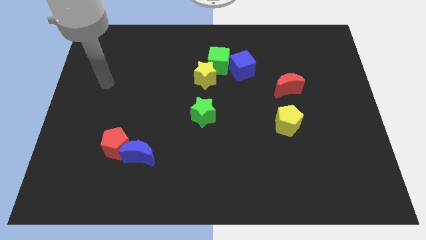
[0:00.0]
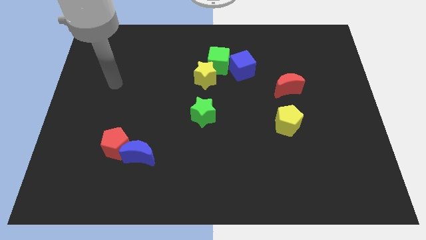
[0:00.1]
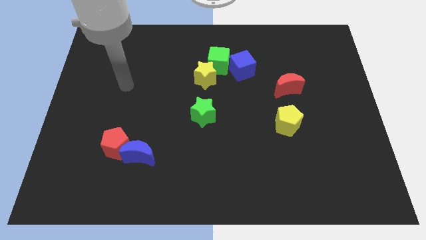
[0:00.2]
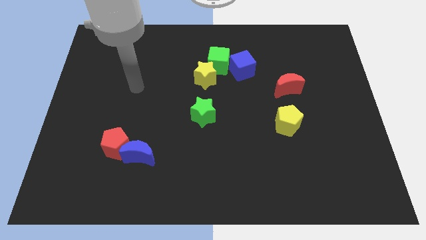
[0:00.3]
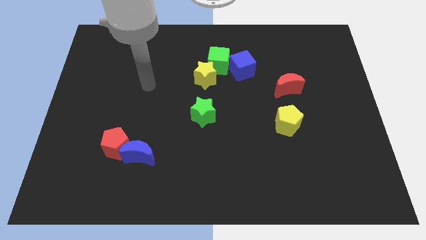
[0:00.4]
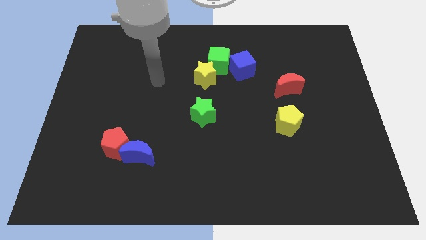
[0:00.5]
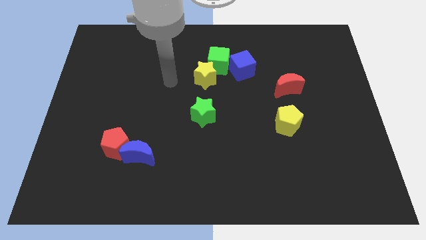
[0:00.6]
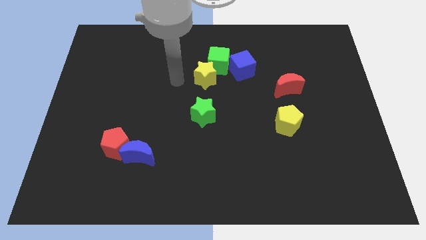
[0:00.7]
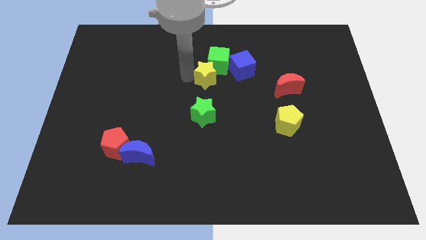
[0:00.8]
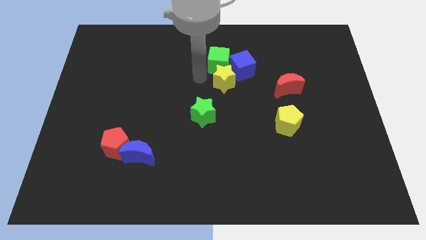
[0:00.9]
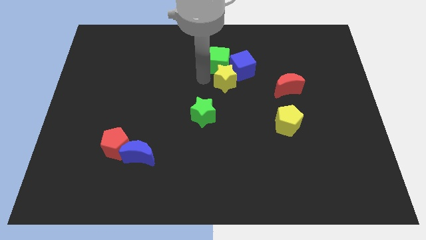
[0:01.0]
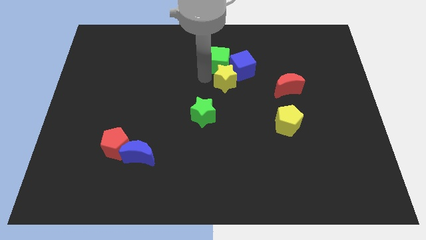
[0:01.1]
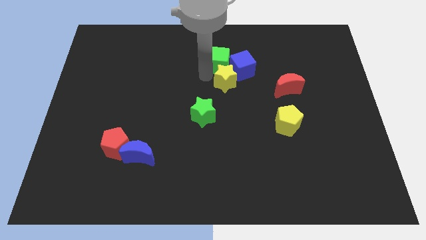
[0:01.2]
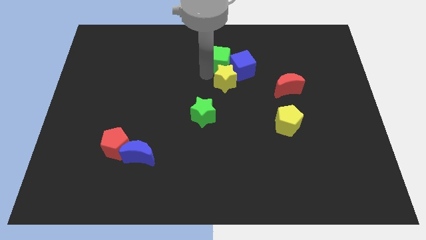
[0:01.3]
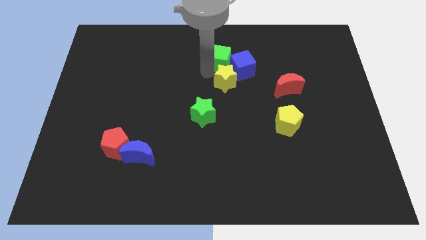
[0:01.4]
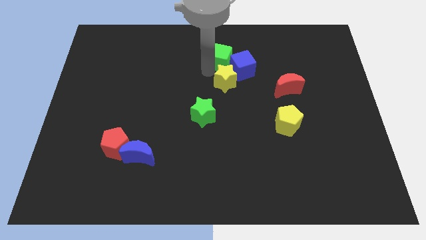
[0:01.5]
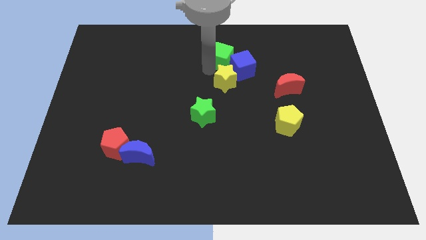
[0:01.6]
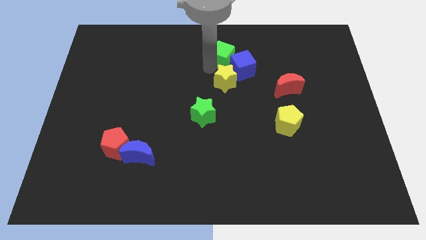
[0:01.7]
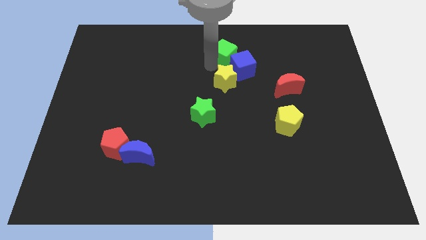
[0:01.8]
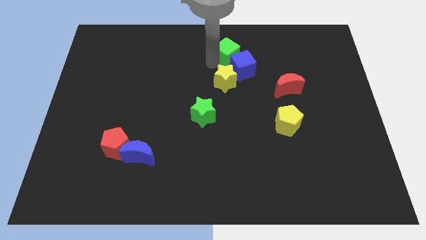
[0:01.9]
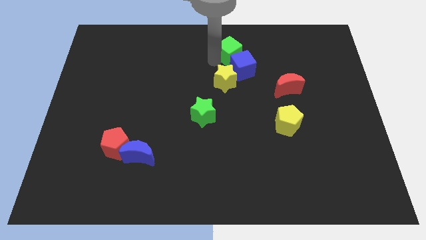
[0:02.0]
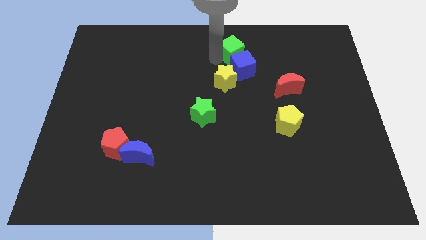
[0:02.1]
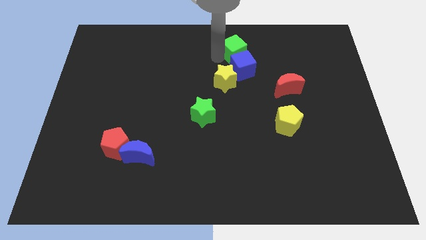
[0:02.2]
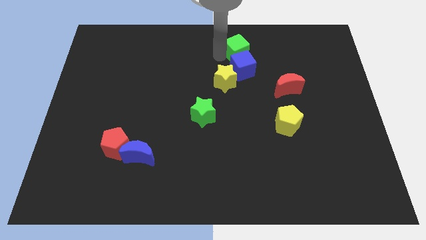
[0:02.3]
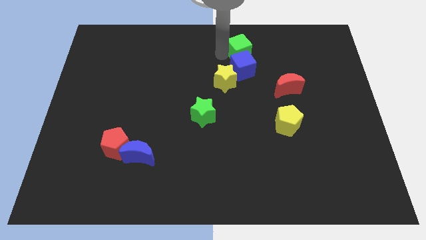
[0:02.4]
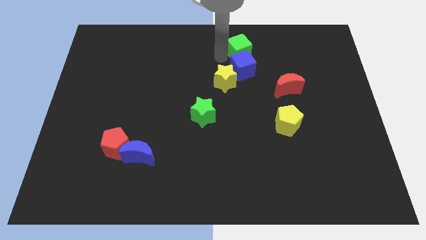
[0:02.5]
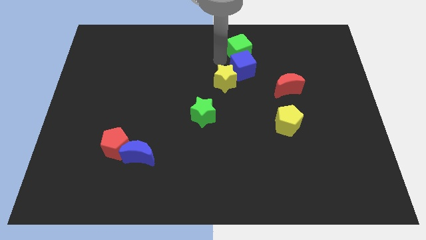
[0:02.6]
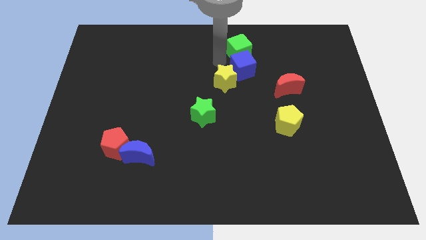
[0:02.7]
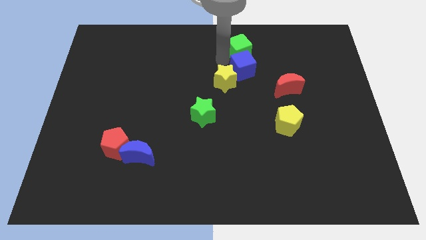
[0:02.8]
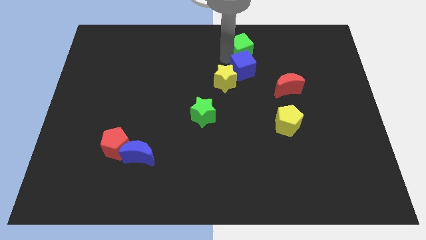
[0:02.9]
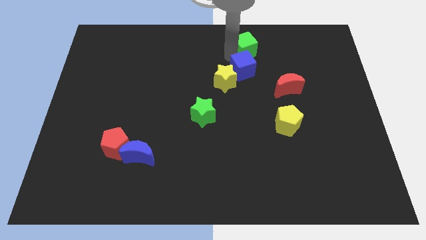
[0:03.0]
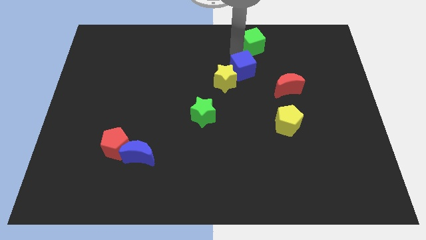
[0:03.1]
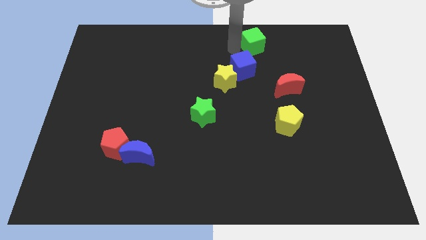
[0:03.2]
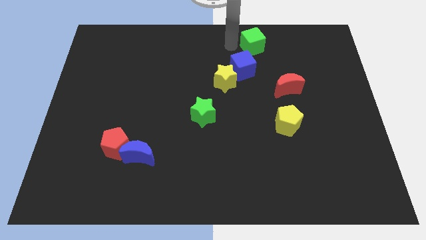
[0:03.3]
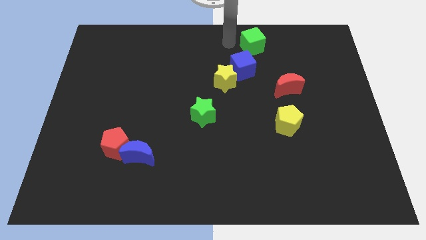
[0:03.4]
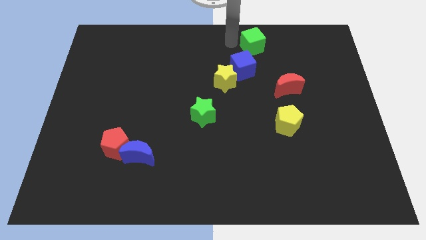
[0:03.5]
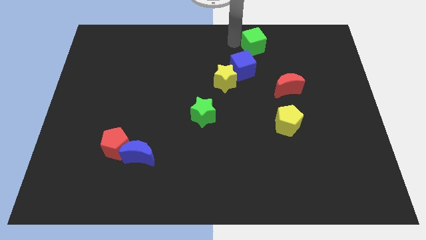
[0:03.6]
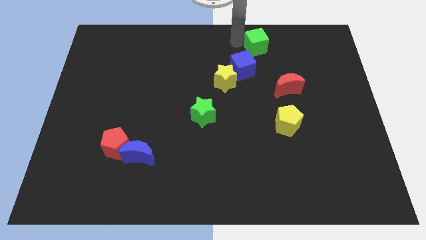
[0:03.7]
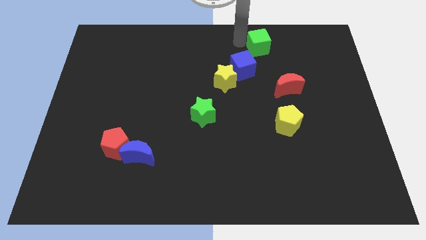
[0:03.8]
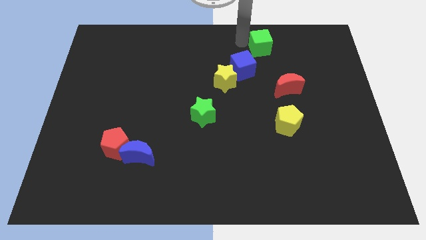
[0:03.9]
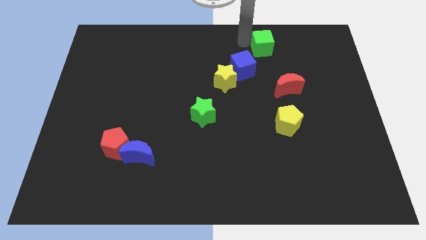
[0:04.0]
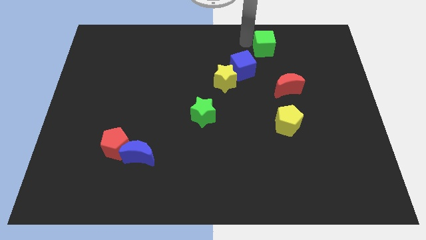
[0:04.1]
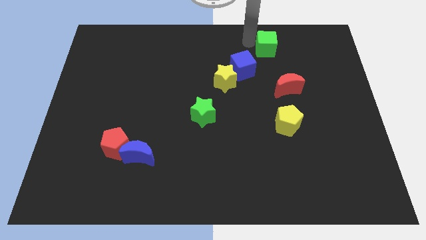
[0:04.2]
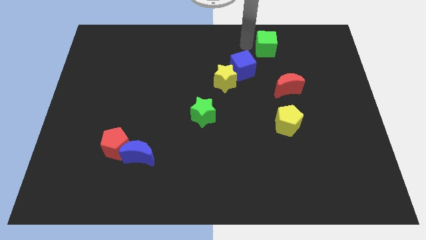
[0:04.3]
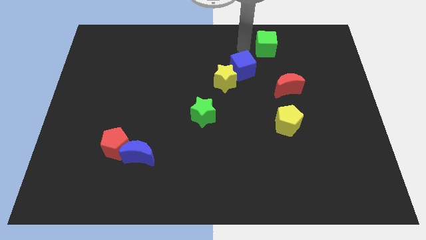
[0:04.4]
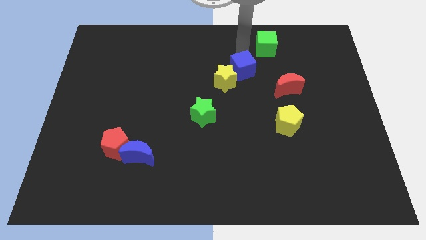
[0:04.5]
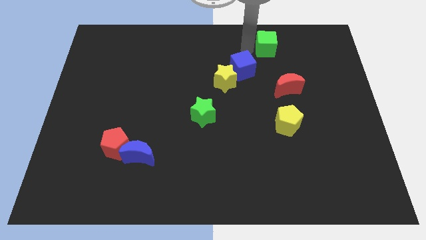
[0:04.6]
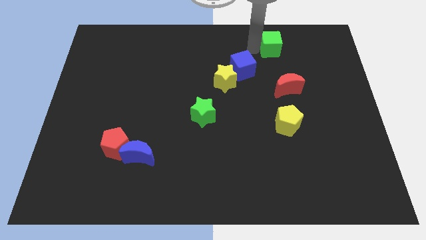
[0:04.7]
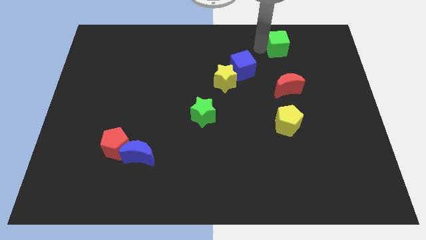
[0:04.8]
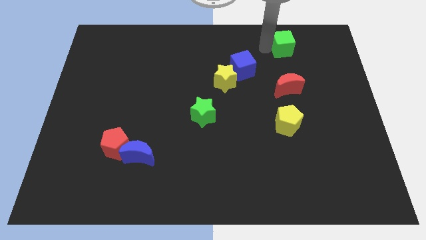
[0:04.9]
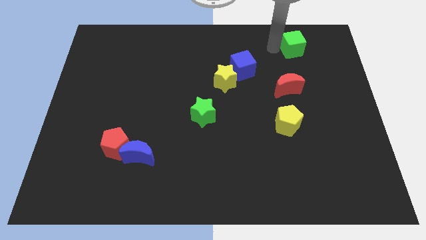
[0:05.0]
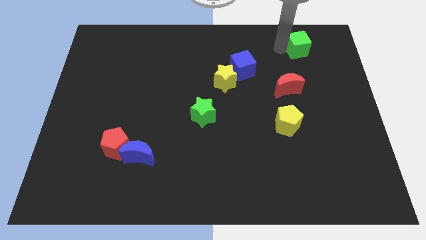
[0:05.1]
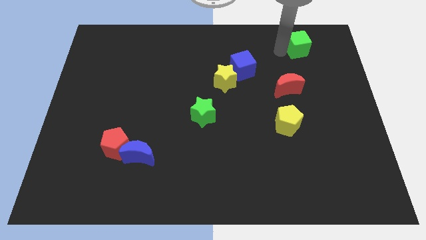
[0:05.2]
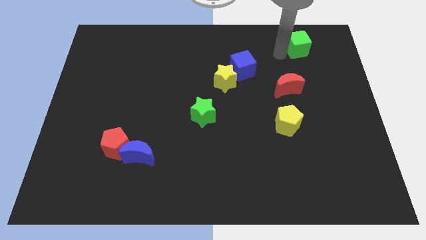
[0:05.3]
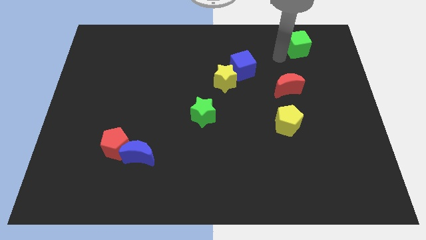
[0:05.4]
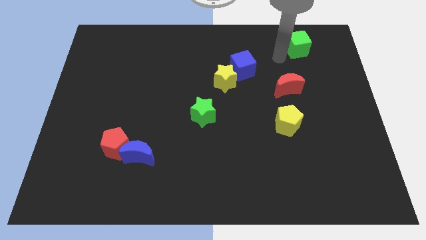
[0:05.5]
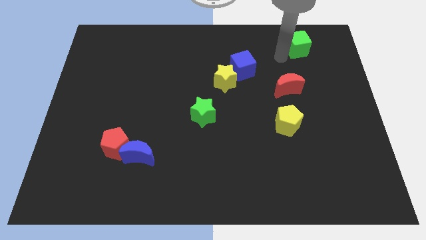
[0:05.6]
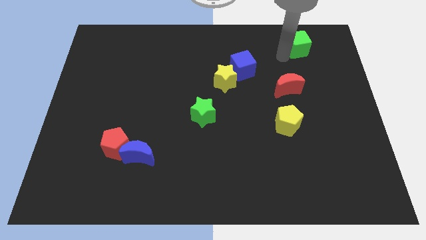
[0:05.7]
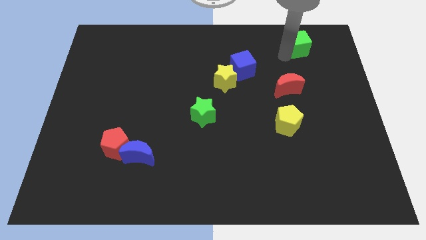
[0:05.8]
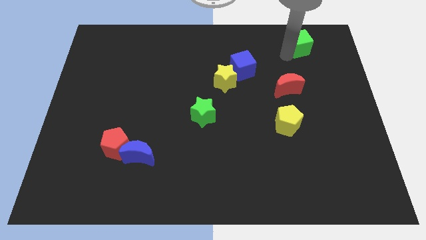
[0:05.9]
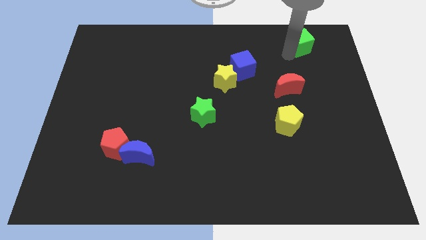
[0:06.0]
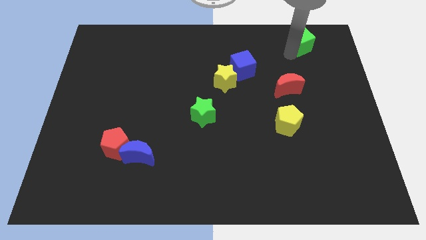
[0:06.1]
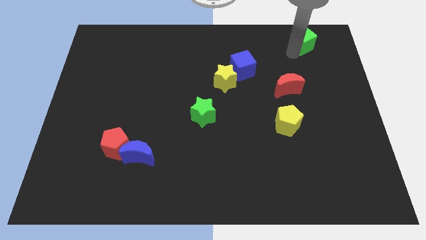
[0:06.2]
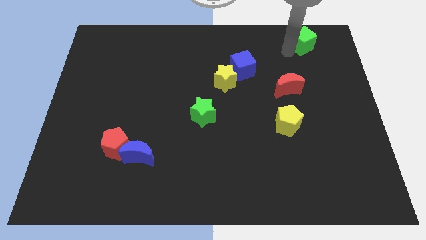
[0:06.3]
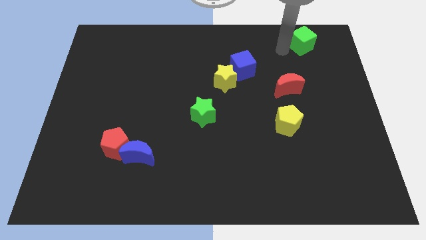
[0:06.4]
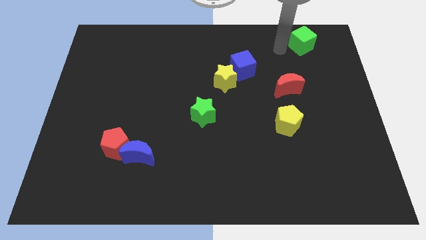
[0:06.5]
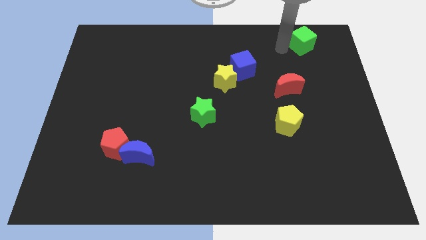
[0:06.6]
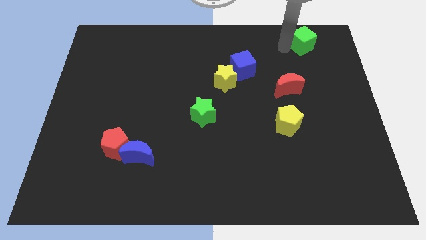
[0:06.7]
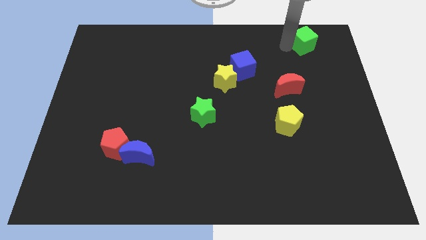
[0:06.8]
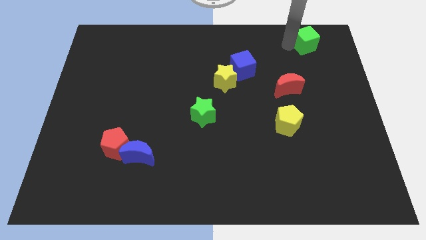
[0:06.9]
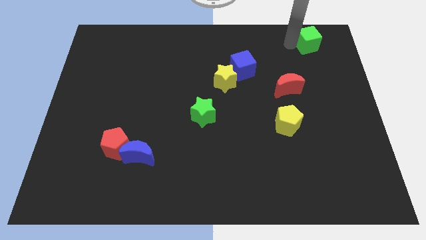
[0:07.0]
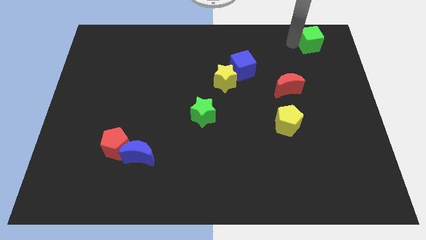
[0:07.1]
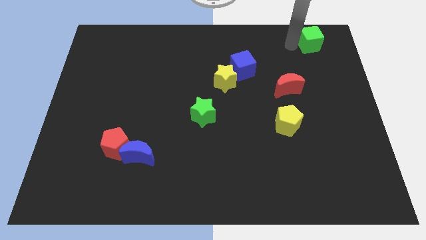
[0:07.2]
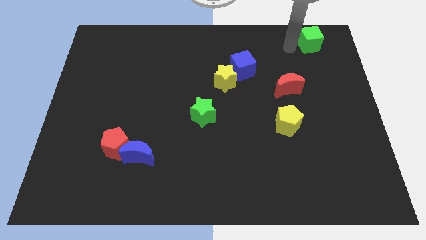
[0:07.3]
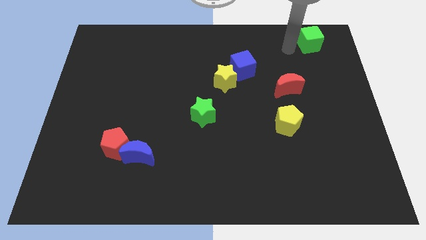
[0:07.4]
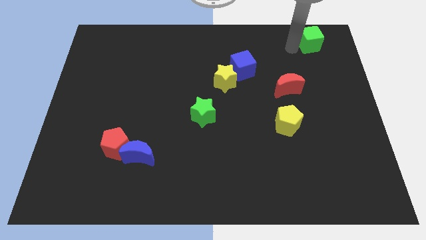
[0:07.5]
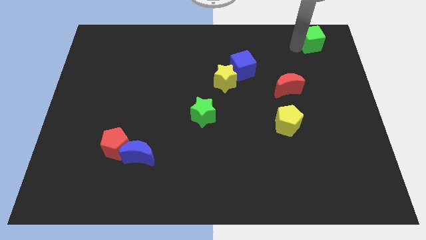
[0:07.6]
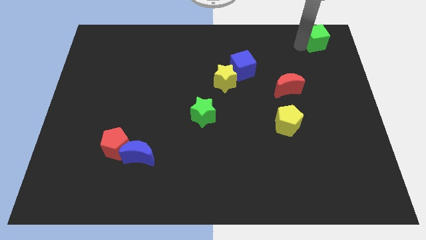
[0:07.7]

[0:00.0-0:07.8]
put the green cube to the upper right corner
